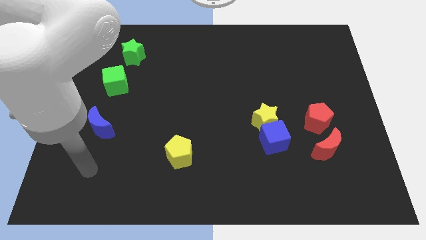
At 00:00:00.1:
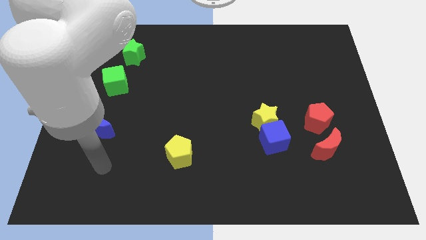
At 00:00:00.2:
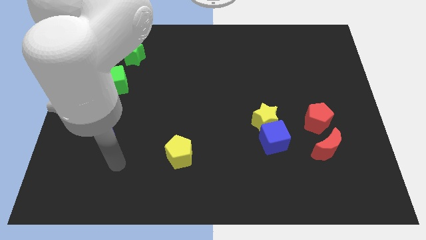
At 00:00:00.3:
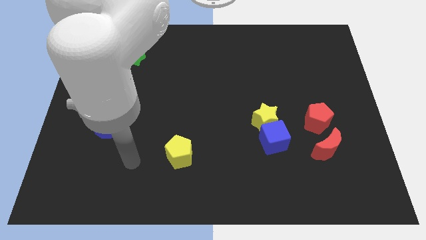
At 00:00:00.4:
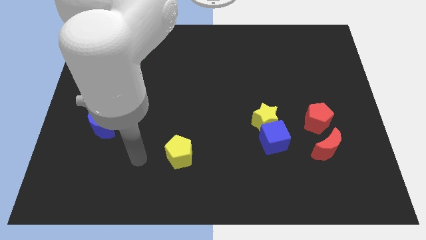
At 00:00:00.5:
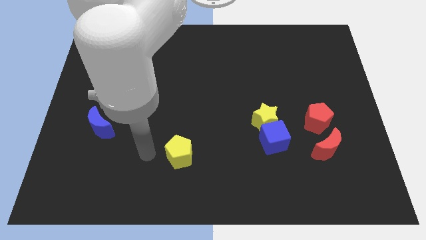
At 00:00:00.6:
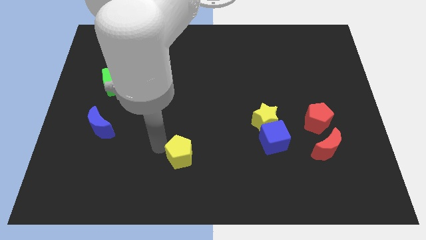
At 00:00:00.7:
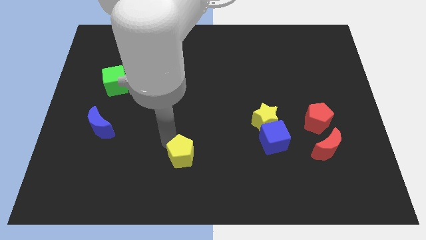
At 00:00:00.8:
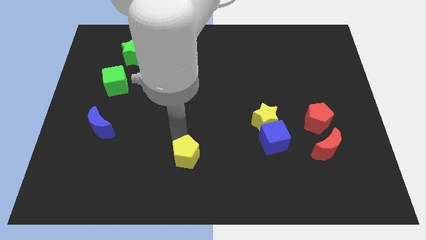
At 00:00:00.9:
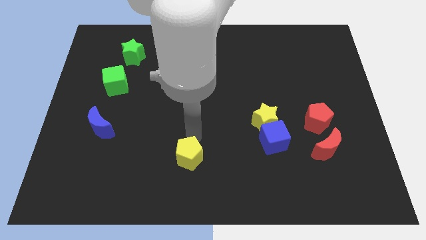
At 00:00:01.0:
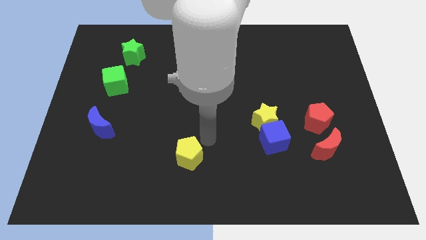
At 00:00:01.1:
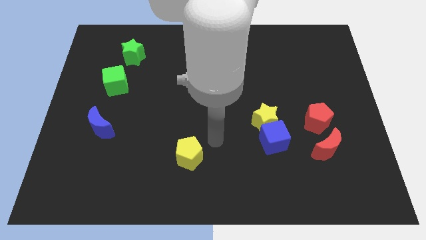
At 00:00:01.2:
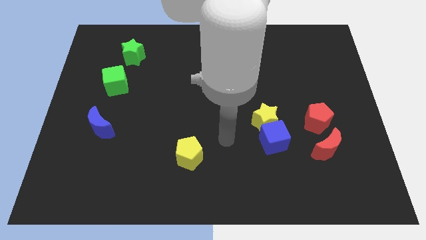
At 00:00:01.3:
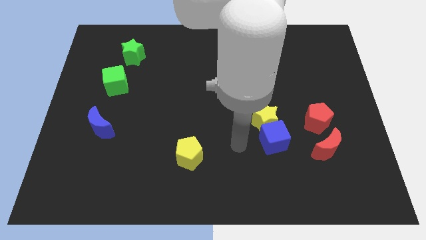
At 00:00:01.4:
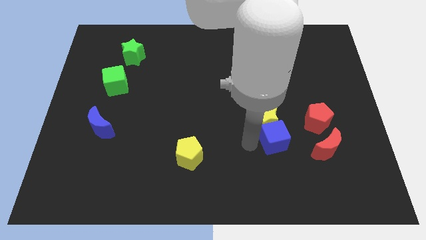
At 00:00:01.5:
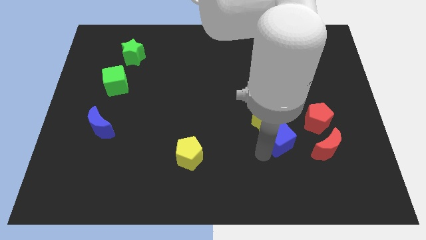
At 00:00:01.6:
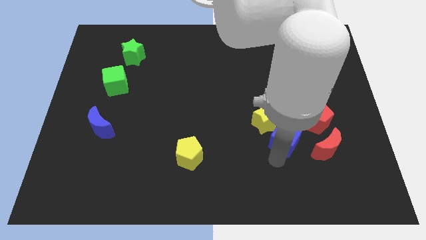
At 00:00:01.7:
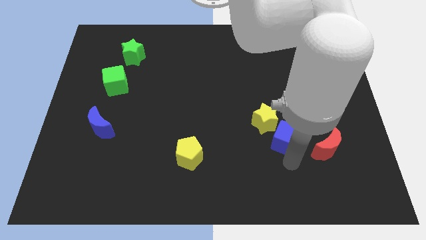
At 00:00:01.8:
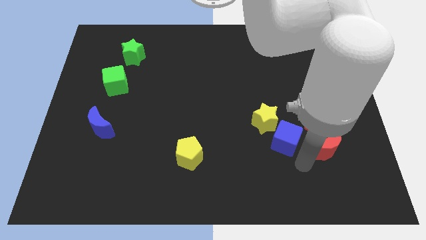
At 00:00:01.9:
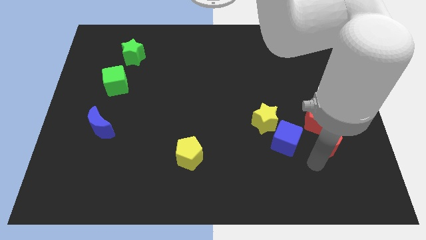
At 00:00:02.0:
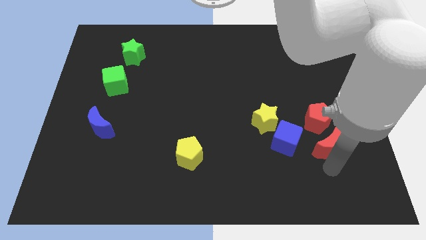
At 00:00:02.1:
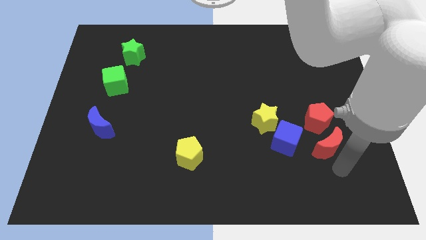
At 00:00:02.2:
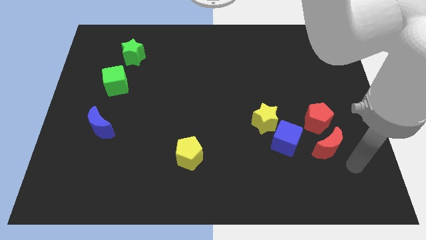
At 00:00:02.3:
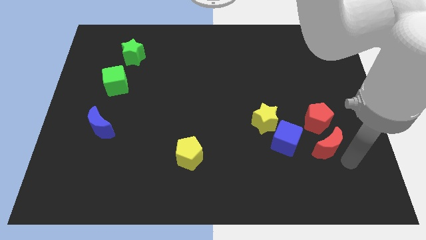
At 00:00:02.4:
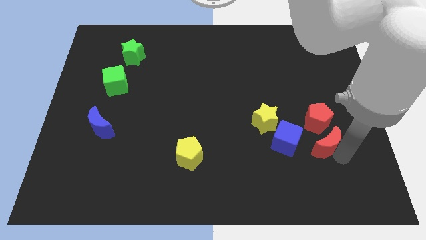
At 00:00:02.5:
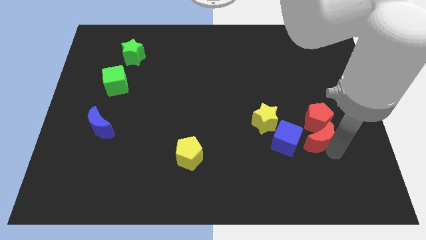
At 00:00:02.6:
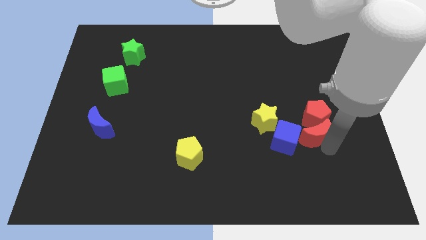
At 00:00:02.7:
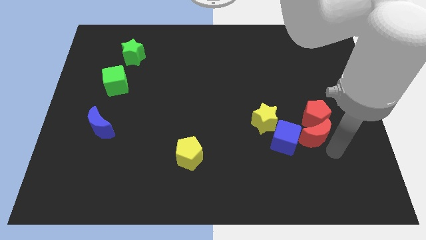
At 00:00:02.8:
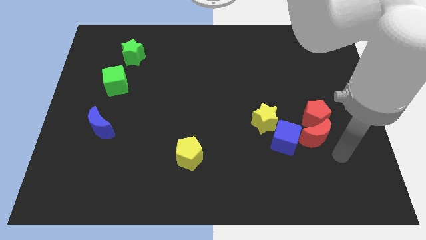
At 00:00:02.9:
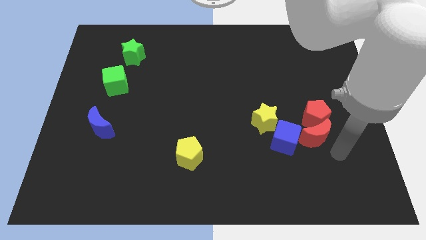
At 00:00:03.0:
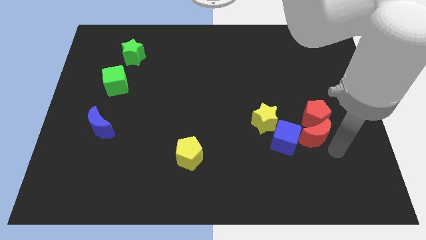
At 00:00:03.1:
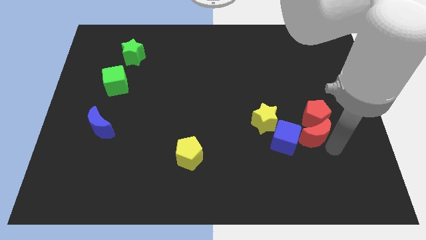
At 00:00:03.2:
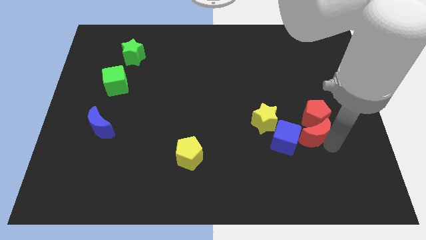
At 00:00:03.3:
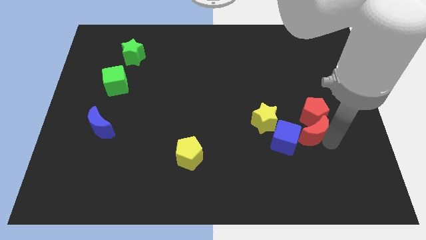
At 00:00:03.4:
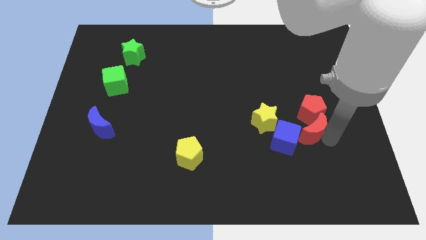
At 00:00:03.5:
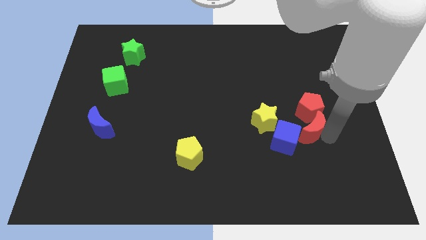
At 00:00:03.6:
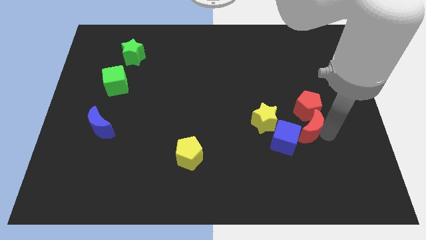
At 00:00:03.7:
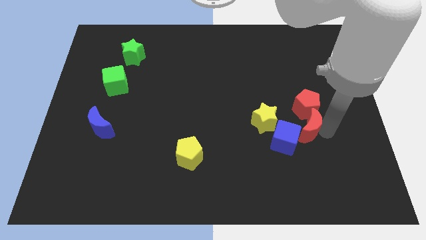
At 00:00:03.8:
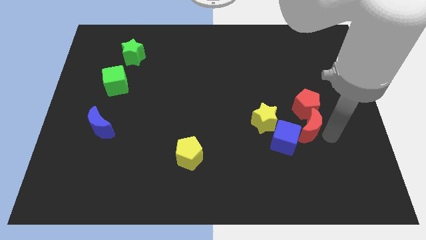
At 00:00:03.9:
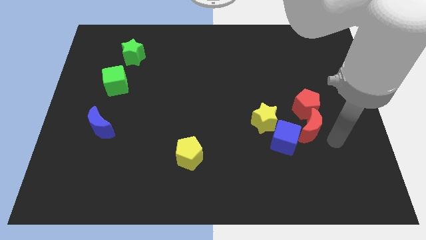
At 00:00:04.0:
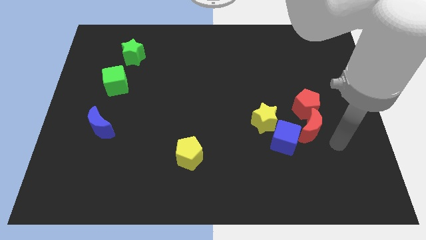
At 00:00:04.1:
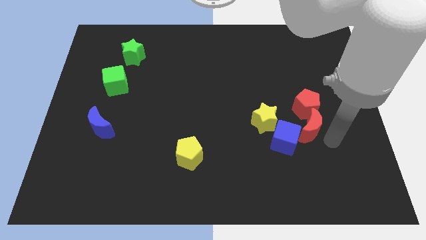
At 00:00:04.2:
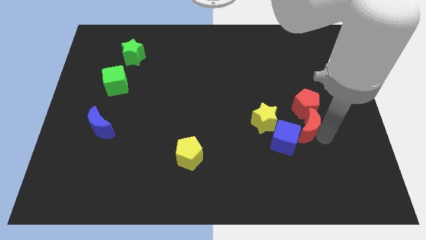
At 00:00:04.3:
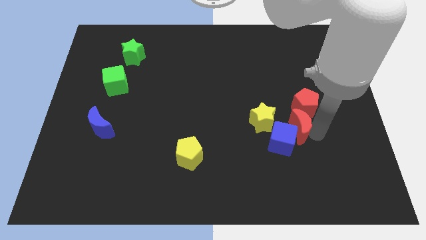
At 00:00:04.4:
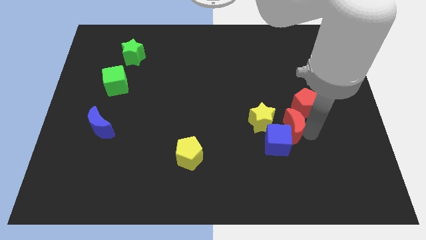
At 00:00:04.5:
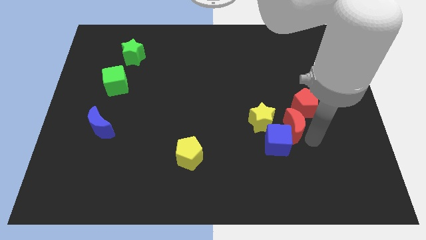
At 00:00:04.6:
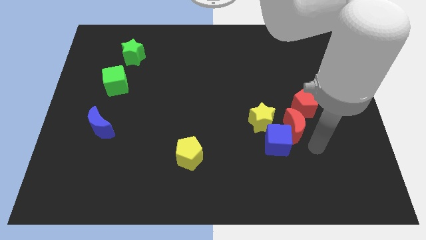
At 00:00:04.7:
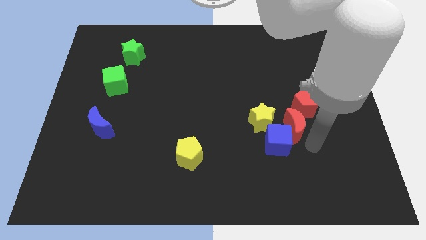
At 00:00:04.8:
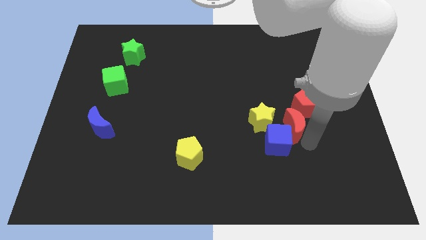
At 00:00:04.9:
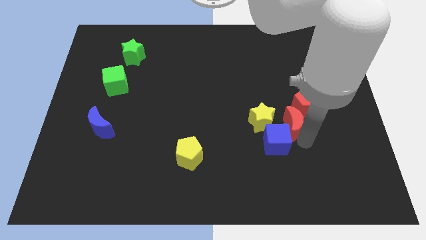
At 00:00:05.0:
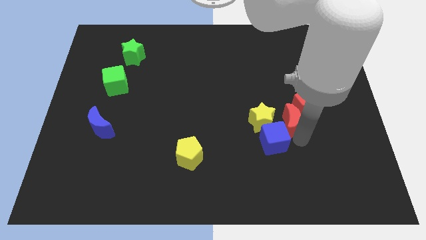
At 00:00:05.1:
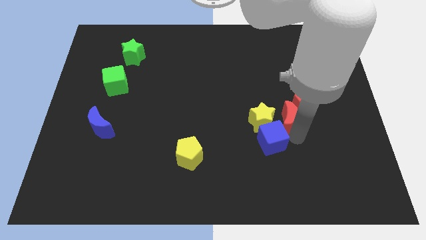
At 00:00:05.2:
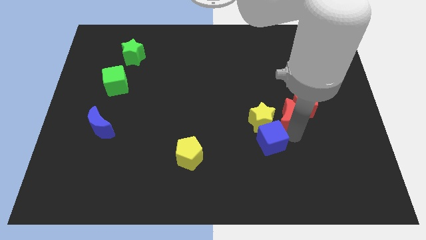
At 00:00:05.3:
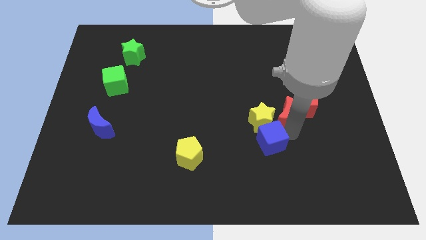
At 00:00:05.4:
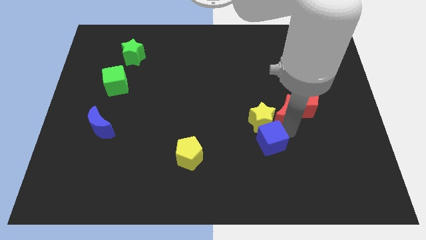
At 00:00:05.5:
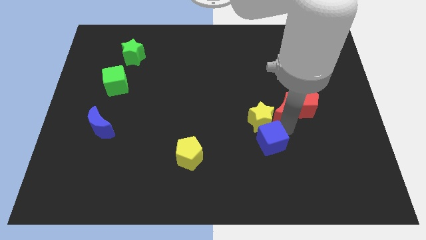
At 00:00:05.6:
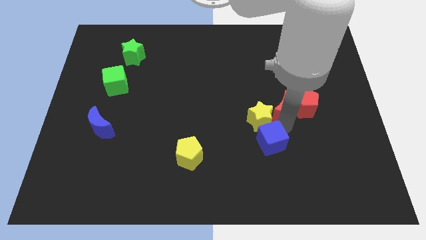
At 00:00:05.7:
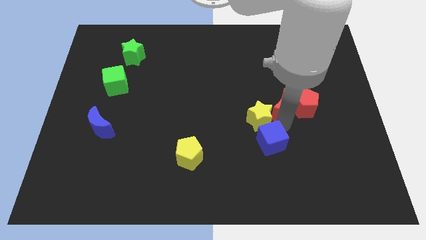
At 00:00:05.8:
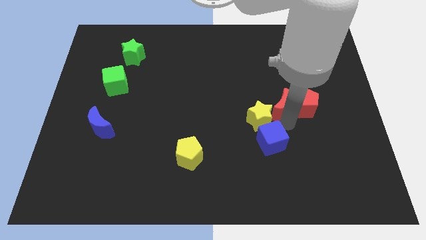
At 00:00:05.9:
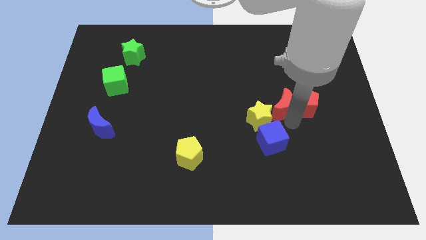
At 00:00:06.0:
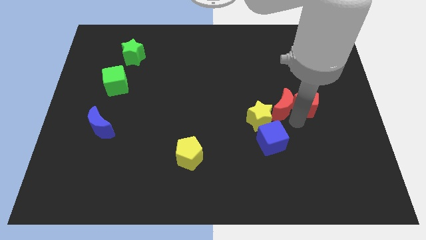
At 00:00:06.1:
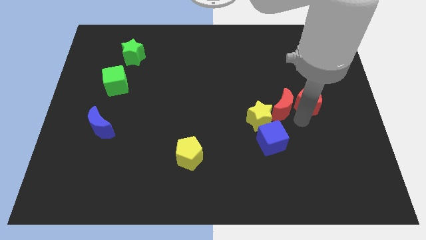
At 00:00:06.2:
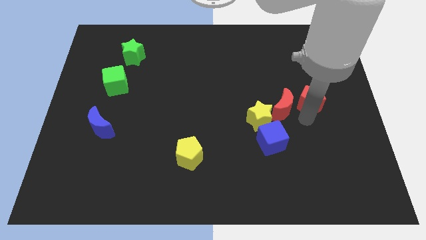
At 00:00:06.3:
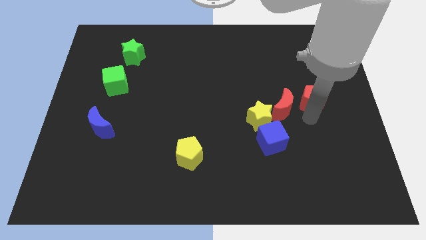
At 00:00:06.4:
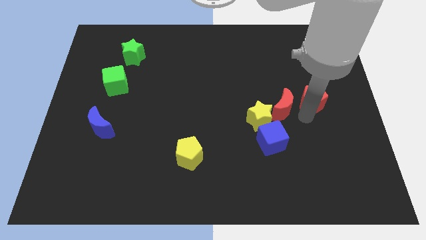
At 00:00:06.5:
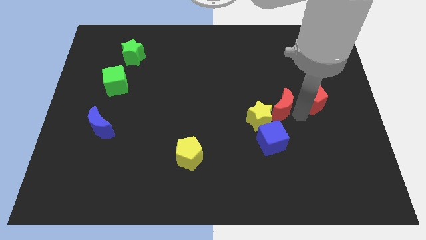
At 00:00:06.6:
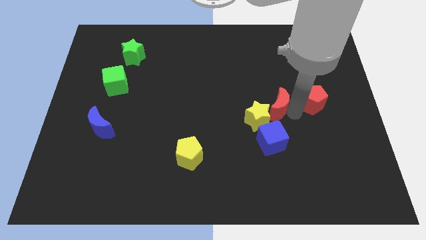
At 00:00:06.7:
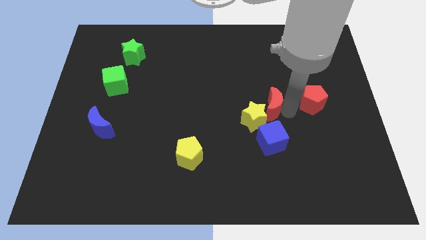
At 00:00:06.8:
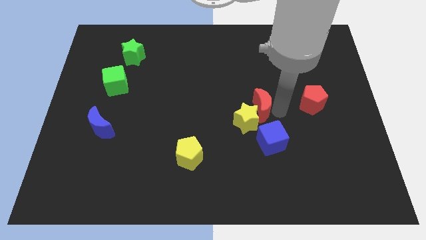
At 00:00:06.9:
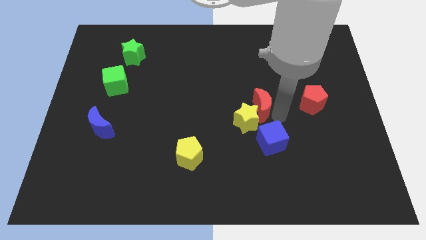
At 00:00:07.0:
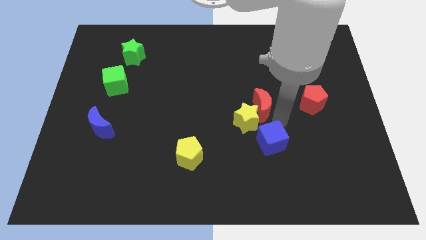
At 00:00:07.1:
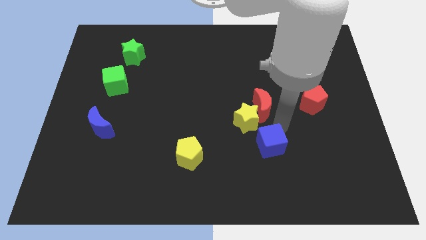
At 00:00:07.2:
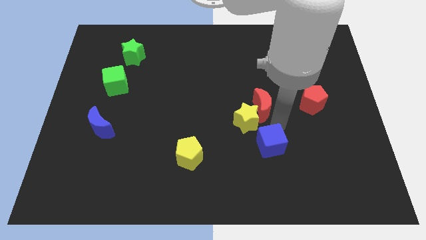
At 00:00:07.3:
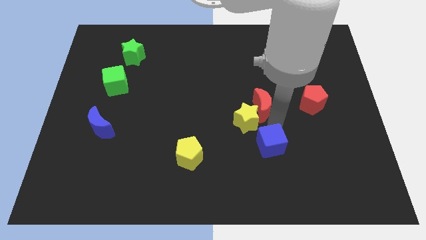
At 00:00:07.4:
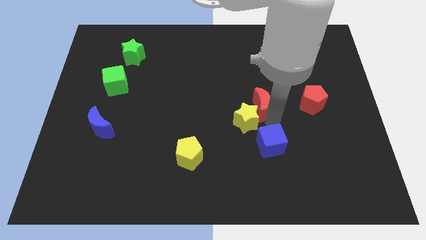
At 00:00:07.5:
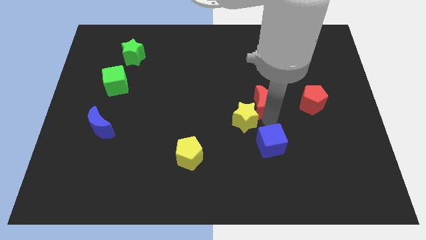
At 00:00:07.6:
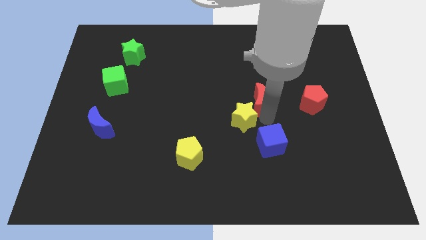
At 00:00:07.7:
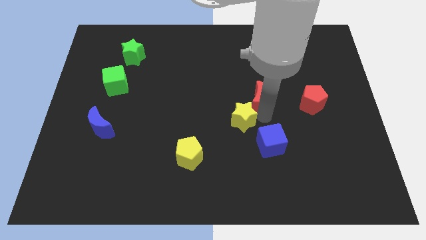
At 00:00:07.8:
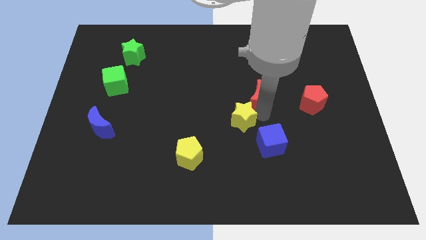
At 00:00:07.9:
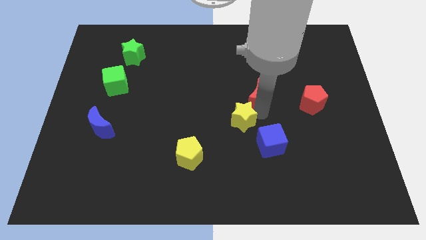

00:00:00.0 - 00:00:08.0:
move the red moon up and to the left diagonally
